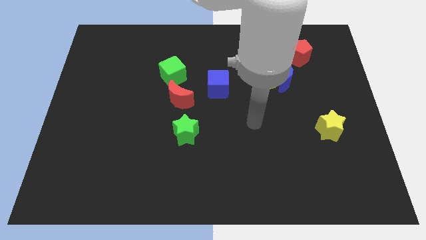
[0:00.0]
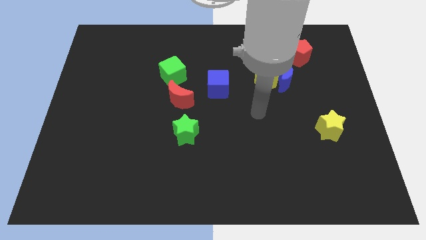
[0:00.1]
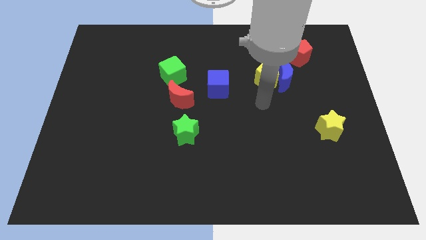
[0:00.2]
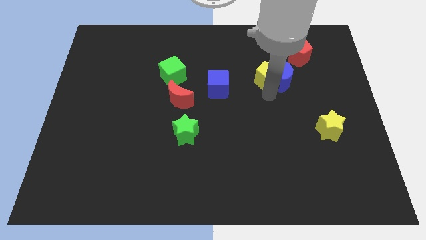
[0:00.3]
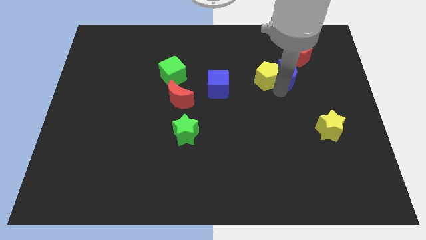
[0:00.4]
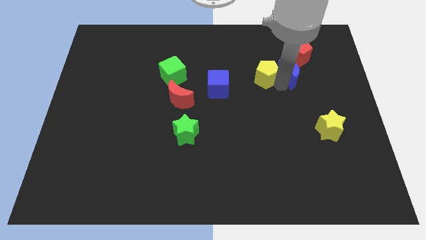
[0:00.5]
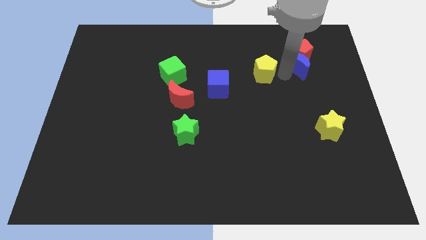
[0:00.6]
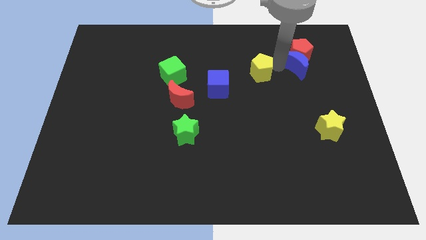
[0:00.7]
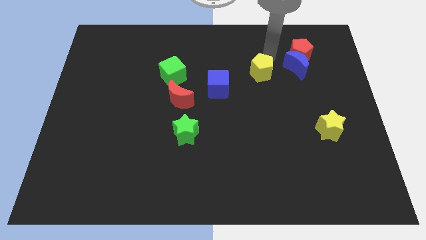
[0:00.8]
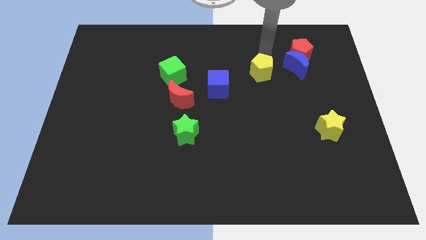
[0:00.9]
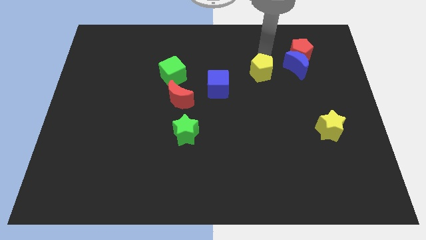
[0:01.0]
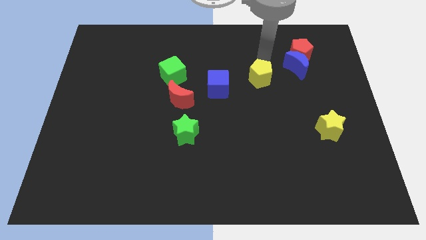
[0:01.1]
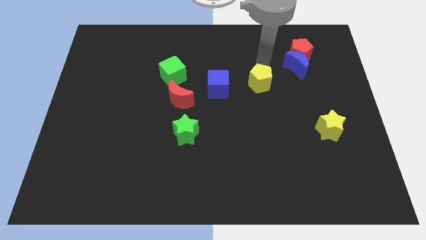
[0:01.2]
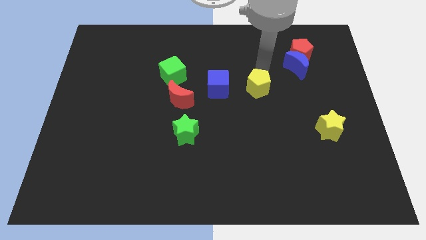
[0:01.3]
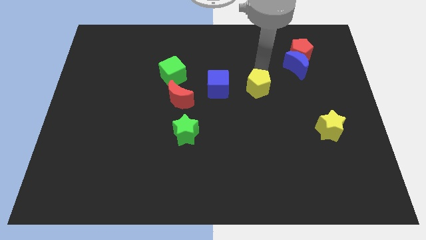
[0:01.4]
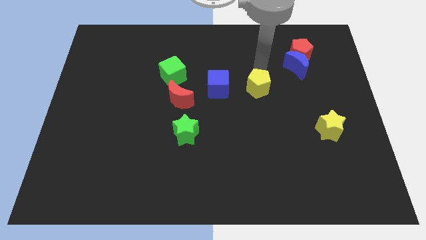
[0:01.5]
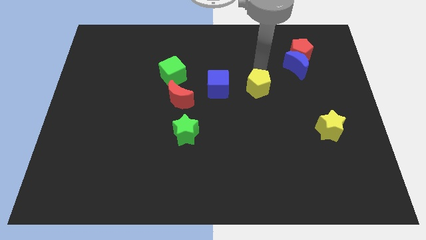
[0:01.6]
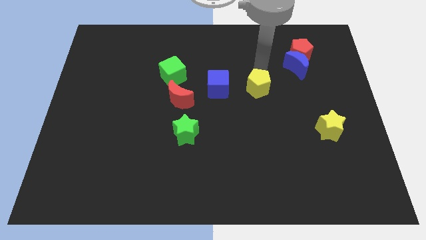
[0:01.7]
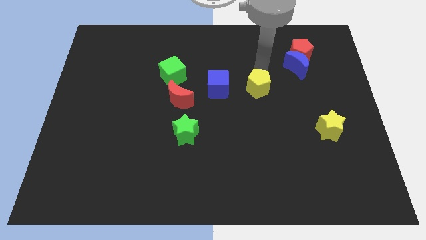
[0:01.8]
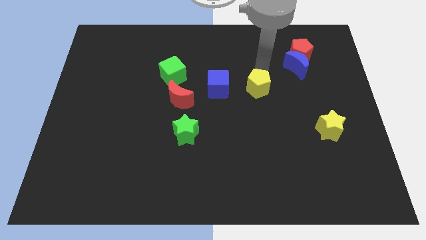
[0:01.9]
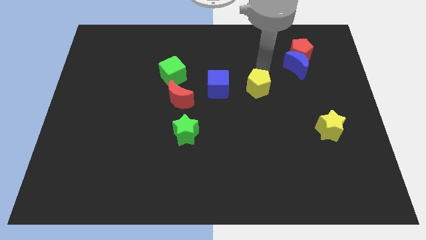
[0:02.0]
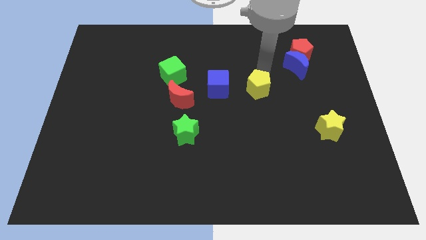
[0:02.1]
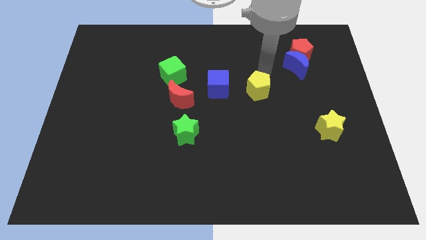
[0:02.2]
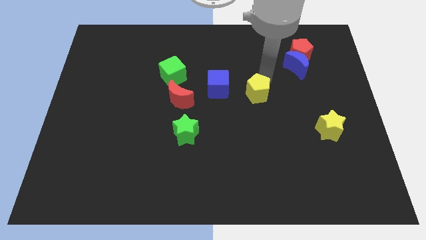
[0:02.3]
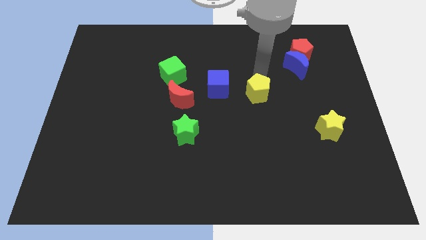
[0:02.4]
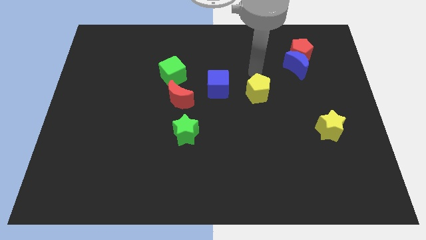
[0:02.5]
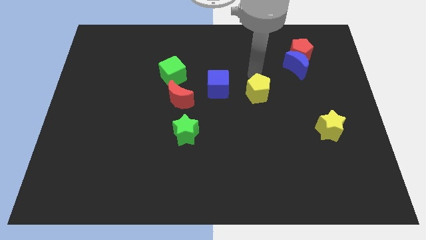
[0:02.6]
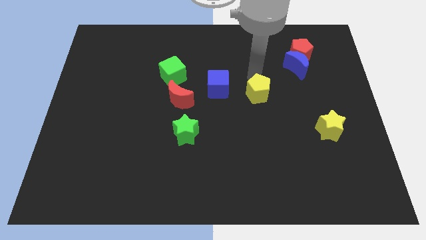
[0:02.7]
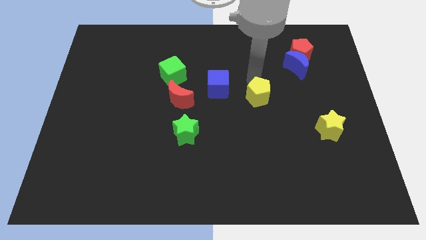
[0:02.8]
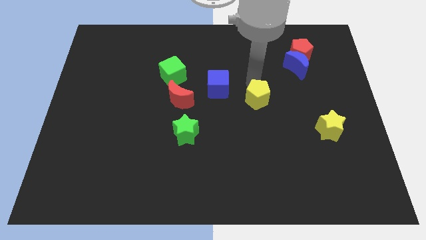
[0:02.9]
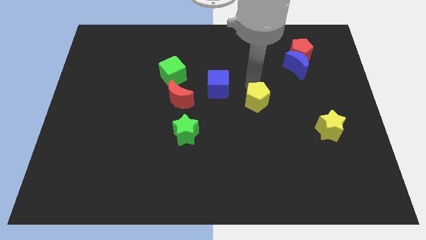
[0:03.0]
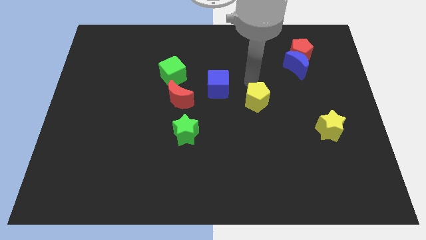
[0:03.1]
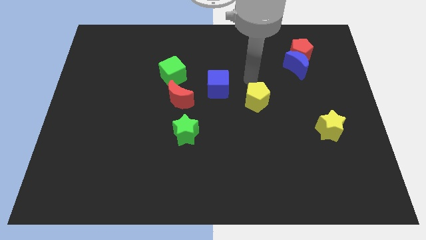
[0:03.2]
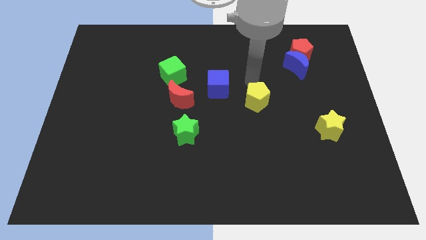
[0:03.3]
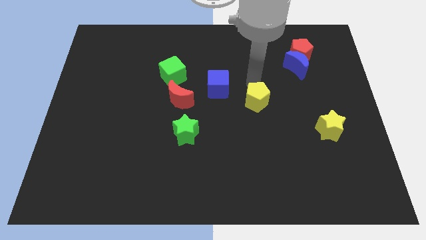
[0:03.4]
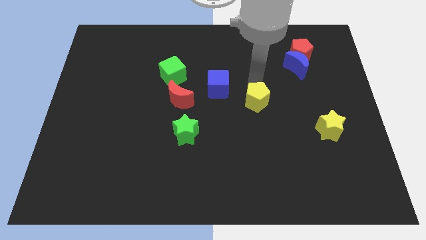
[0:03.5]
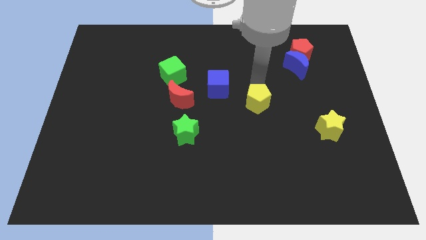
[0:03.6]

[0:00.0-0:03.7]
slide the yellow pentagon down slightly

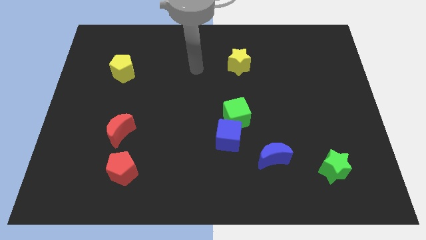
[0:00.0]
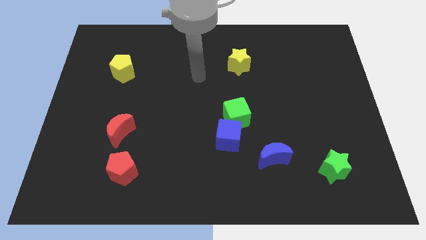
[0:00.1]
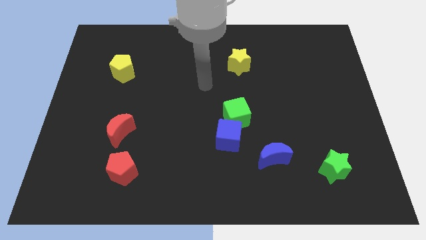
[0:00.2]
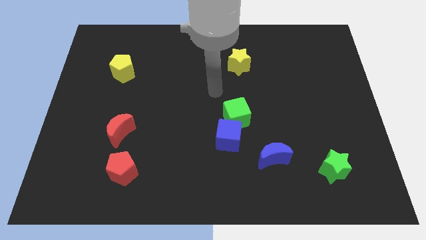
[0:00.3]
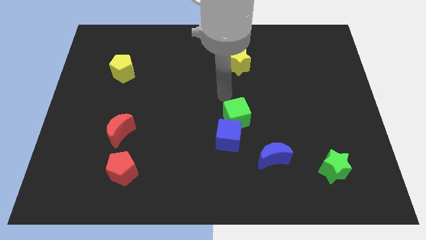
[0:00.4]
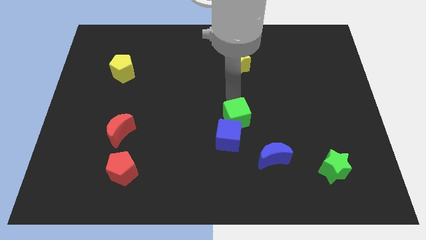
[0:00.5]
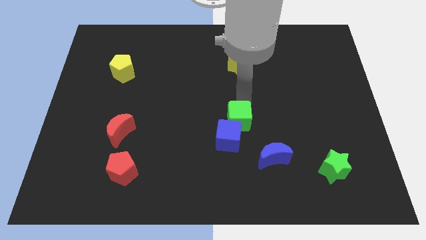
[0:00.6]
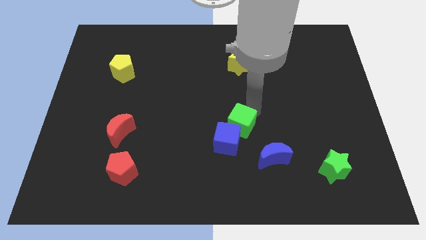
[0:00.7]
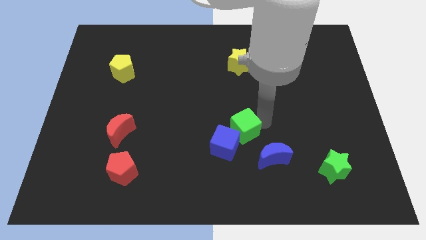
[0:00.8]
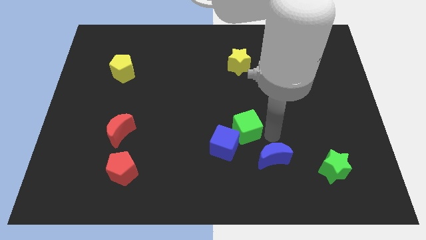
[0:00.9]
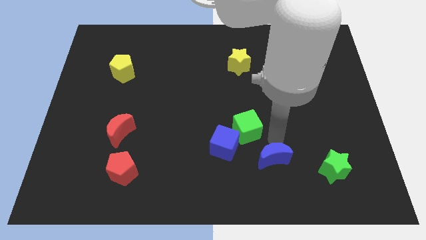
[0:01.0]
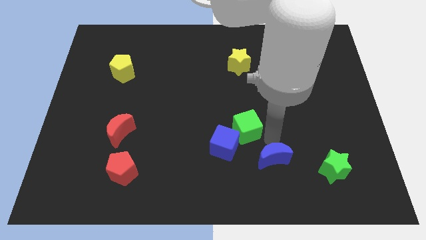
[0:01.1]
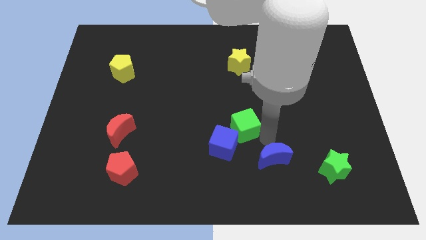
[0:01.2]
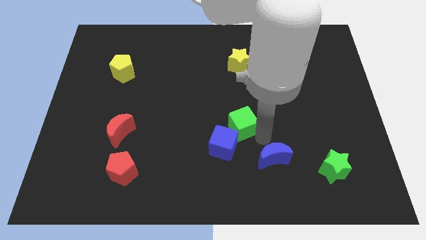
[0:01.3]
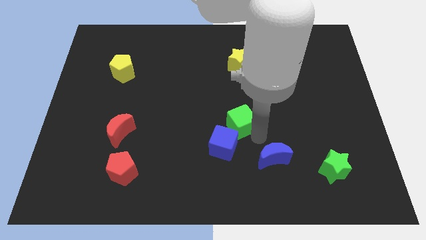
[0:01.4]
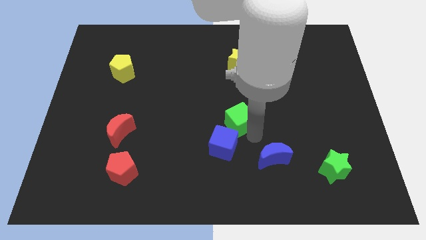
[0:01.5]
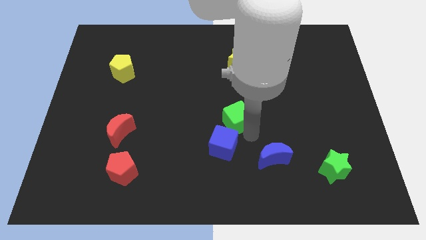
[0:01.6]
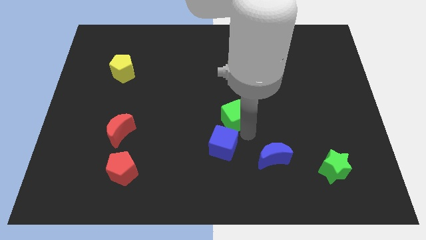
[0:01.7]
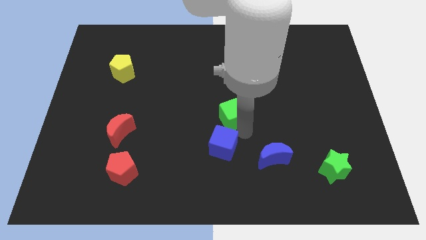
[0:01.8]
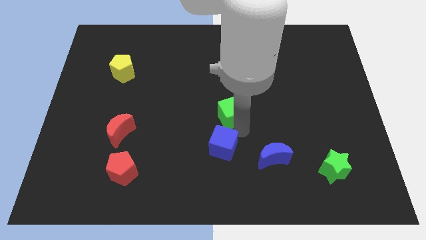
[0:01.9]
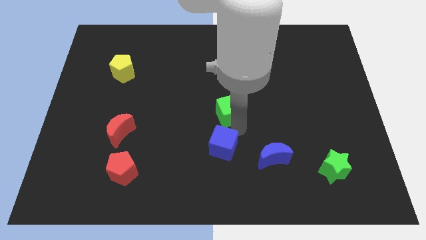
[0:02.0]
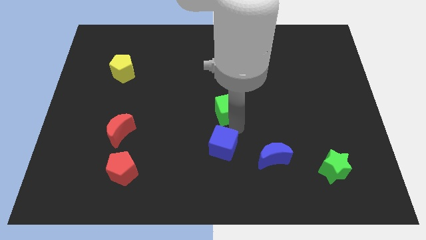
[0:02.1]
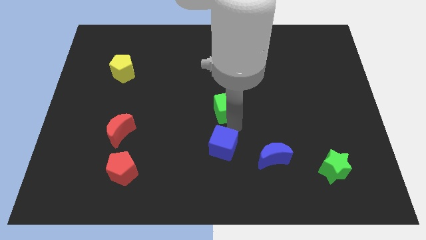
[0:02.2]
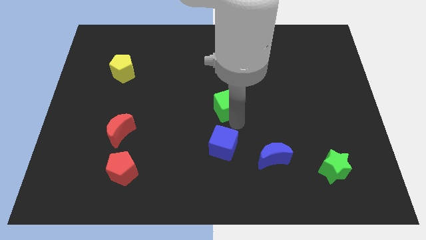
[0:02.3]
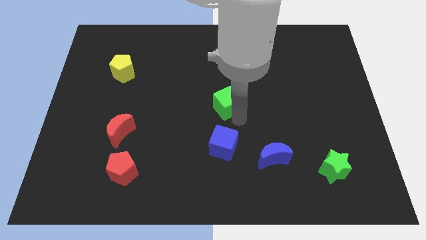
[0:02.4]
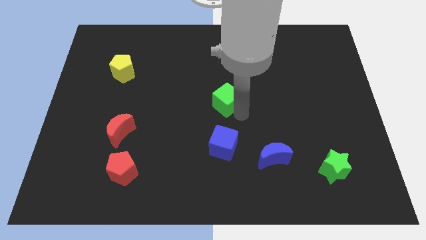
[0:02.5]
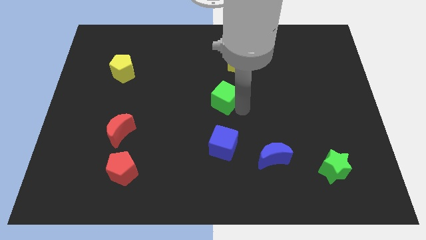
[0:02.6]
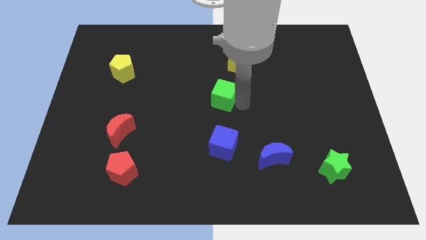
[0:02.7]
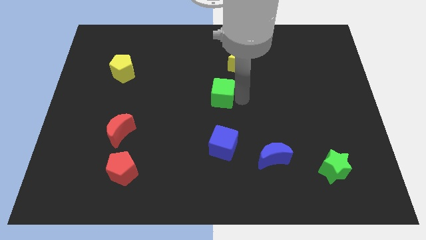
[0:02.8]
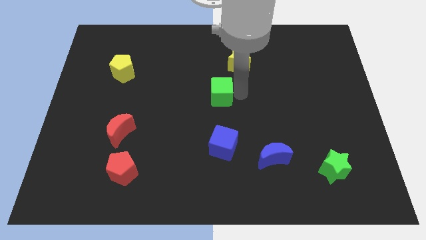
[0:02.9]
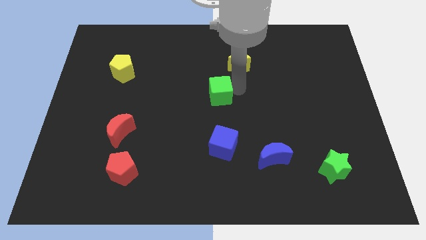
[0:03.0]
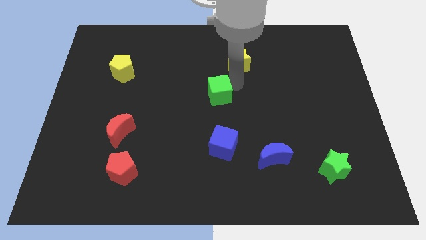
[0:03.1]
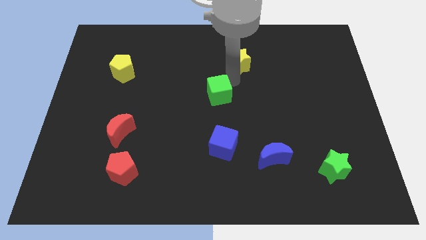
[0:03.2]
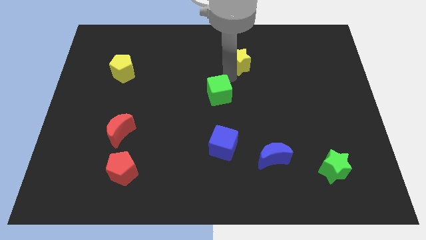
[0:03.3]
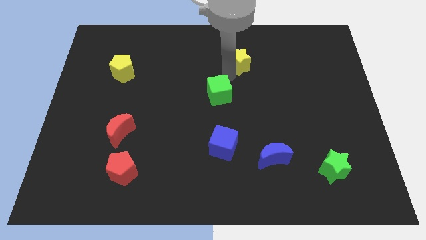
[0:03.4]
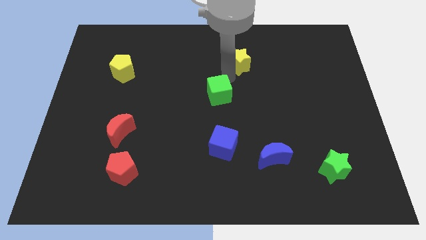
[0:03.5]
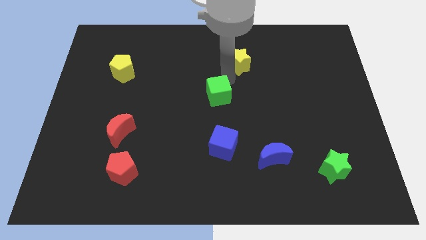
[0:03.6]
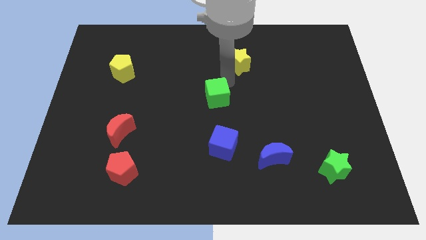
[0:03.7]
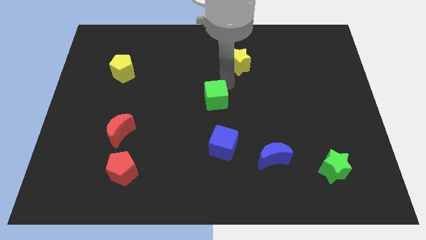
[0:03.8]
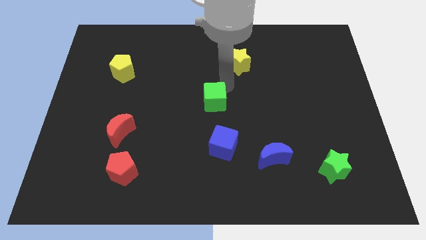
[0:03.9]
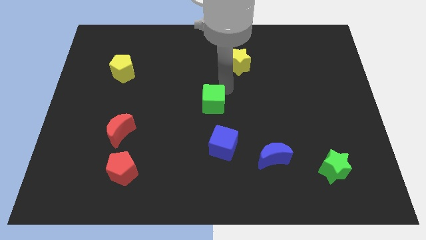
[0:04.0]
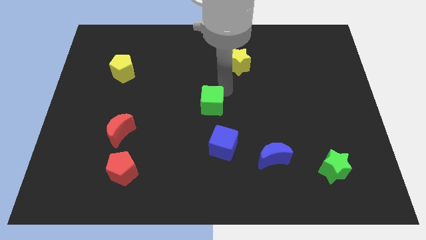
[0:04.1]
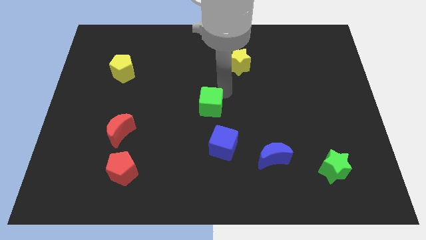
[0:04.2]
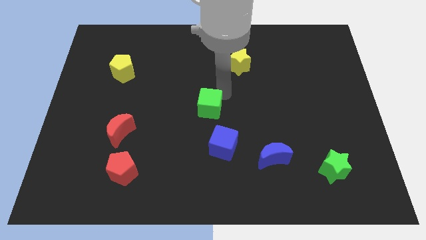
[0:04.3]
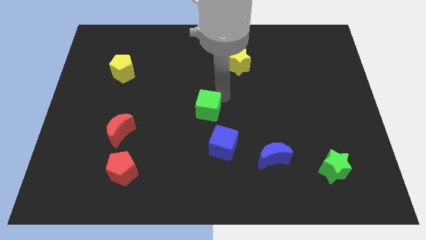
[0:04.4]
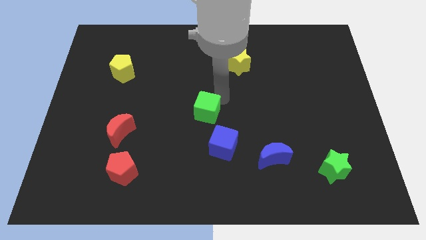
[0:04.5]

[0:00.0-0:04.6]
slightly slide the green cube to the left

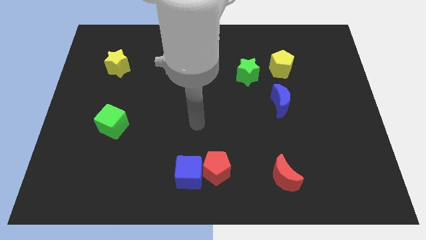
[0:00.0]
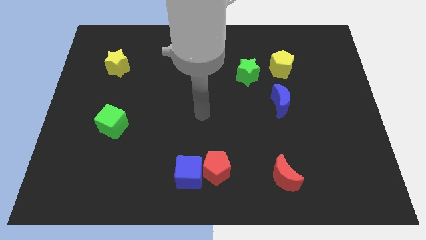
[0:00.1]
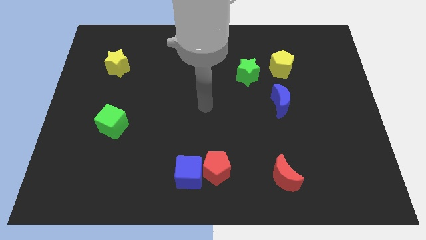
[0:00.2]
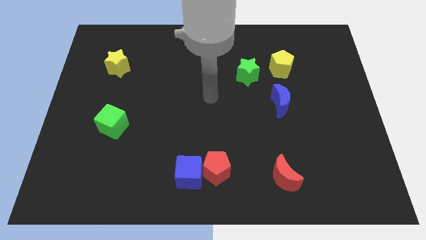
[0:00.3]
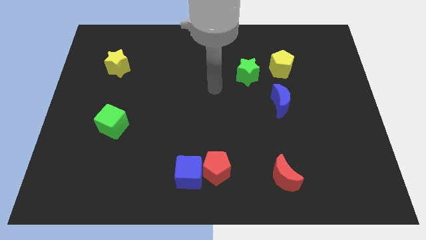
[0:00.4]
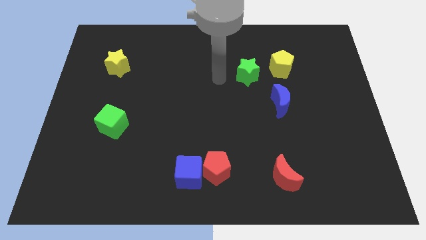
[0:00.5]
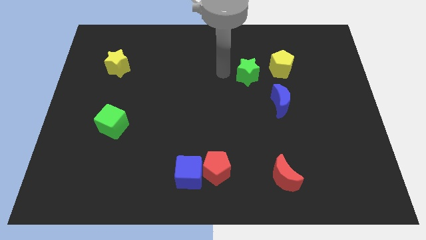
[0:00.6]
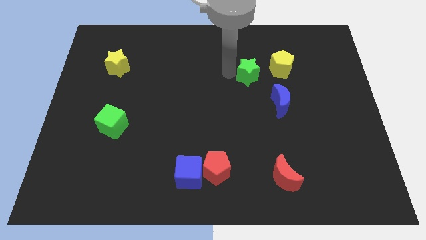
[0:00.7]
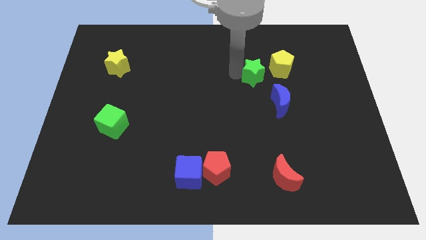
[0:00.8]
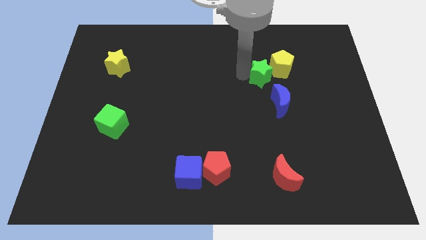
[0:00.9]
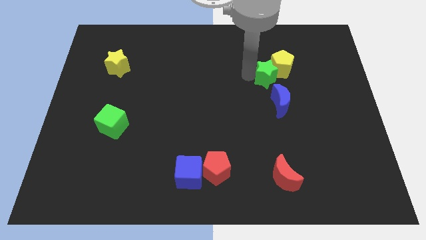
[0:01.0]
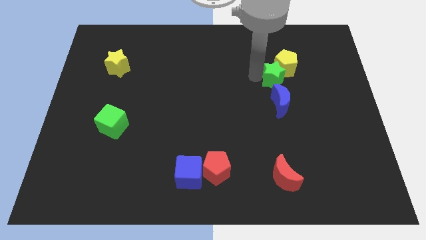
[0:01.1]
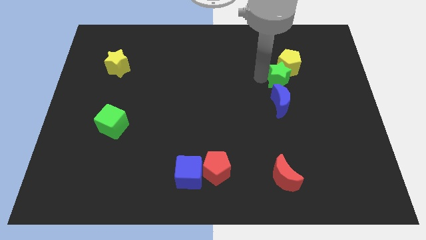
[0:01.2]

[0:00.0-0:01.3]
slide the green star to the right a bit
